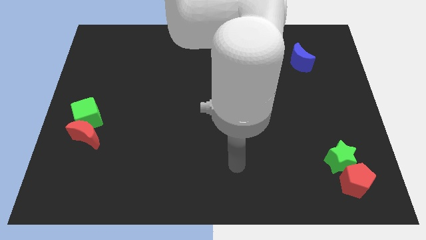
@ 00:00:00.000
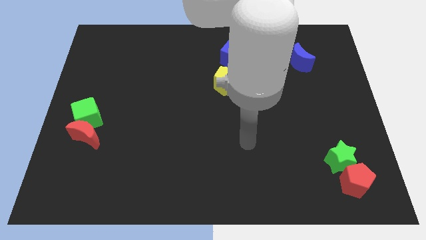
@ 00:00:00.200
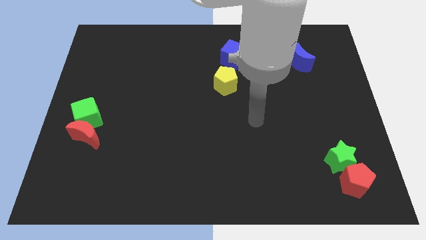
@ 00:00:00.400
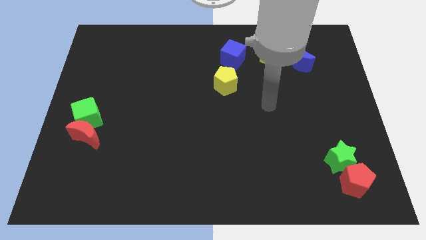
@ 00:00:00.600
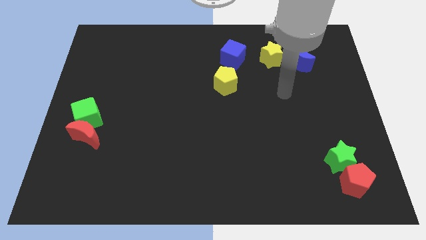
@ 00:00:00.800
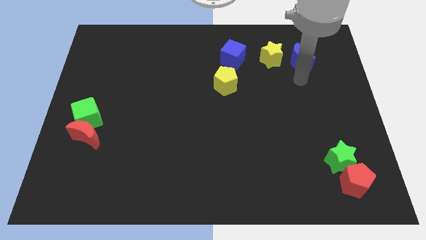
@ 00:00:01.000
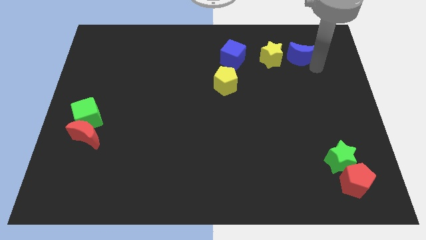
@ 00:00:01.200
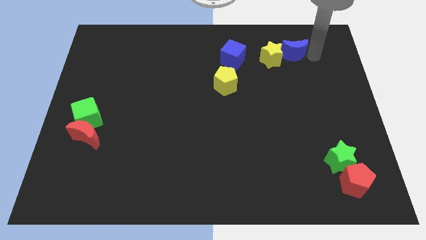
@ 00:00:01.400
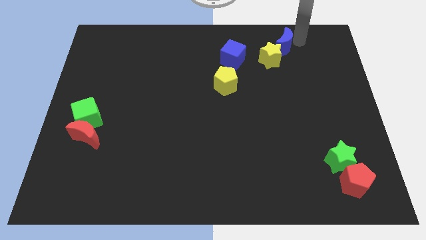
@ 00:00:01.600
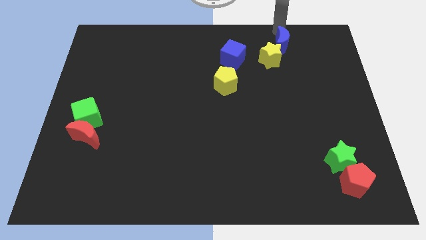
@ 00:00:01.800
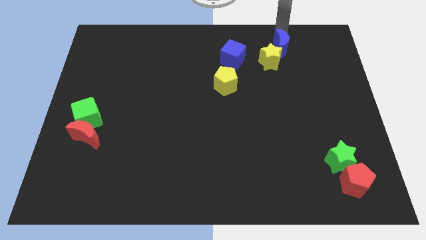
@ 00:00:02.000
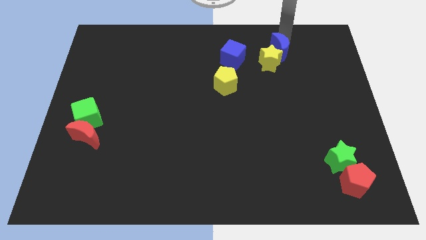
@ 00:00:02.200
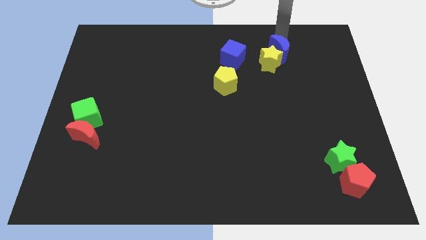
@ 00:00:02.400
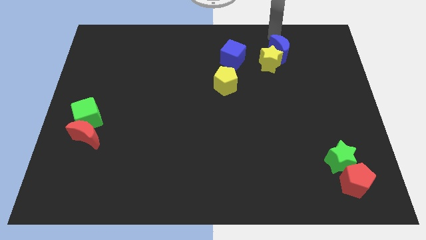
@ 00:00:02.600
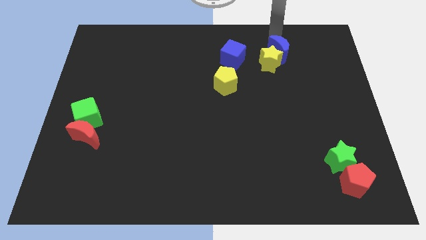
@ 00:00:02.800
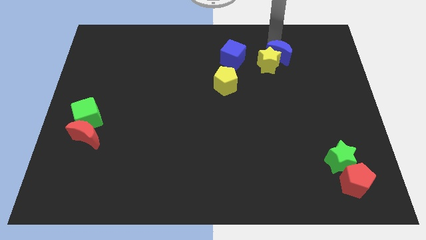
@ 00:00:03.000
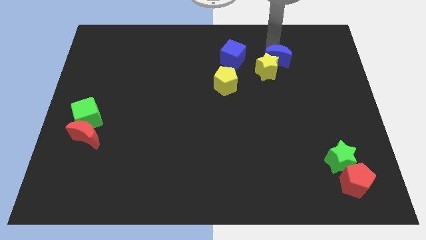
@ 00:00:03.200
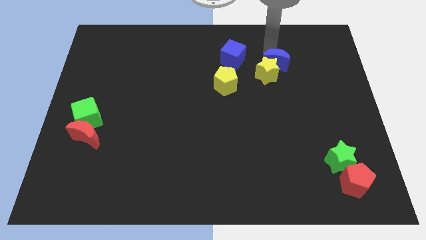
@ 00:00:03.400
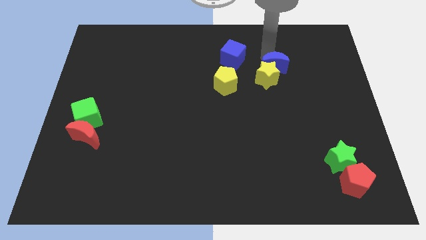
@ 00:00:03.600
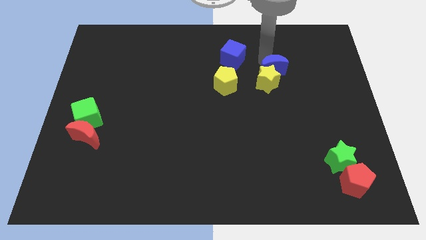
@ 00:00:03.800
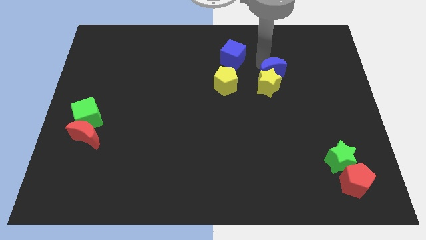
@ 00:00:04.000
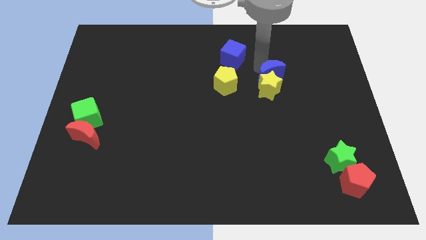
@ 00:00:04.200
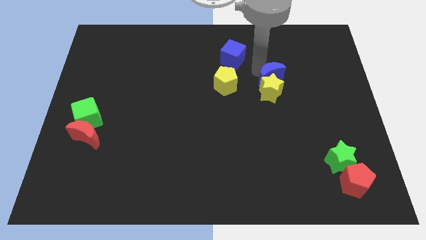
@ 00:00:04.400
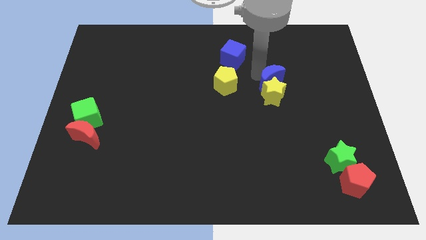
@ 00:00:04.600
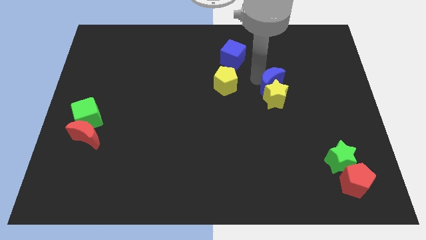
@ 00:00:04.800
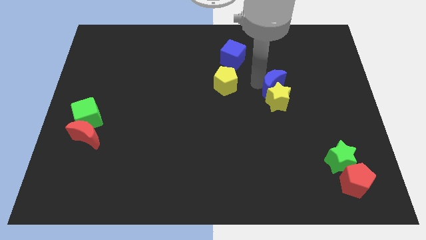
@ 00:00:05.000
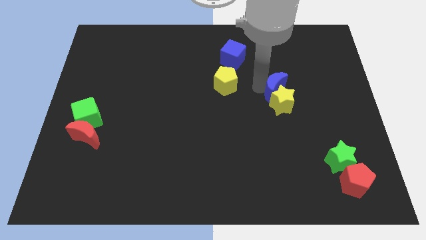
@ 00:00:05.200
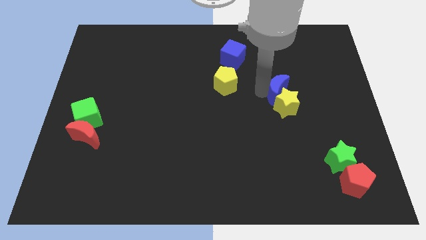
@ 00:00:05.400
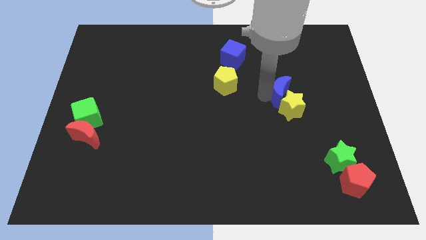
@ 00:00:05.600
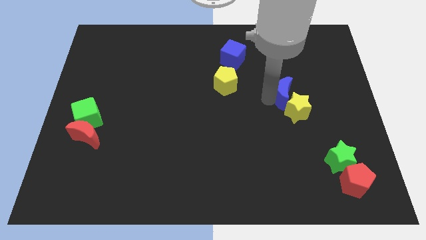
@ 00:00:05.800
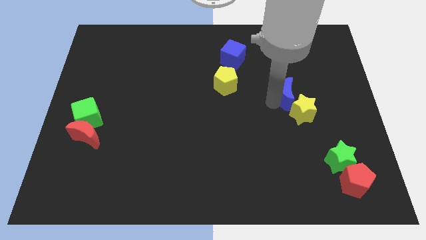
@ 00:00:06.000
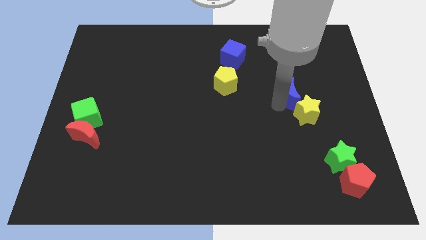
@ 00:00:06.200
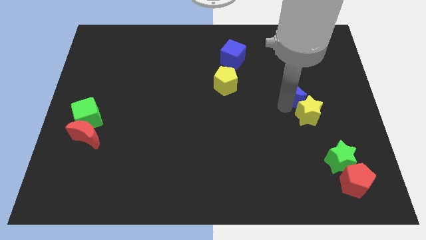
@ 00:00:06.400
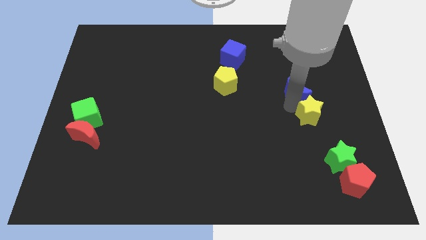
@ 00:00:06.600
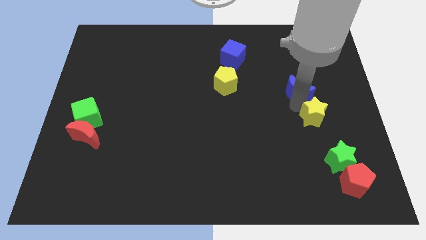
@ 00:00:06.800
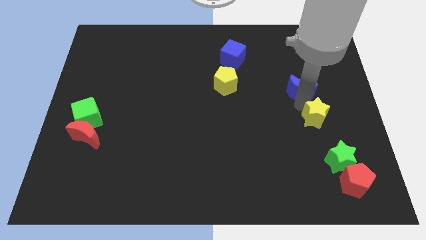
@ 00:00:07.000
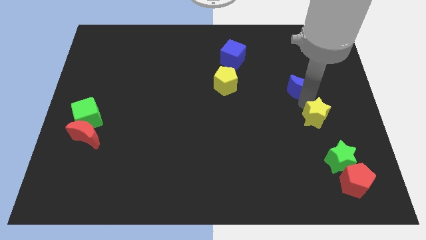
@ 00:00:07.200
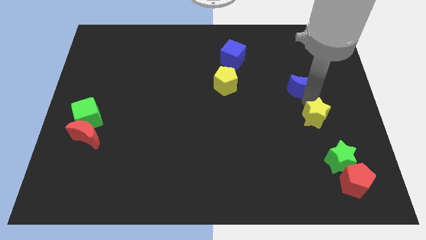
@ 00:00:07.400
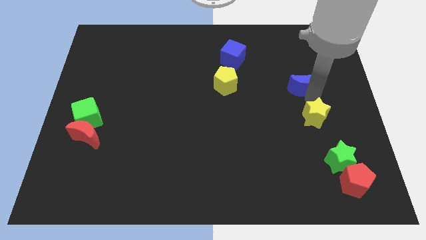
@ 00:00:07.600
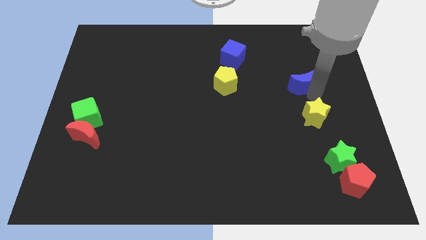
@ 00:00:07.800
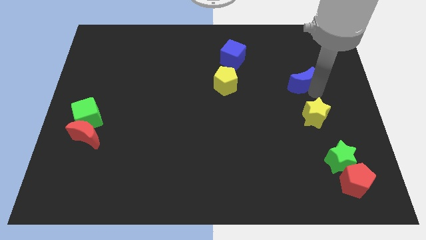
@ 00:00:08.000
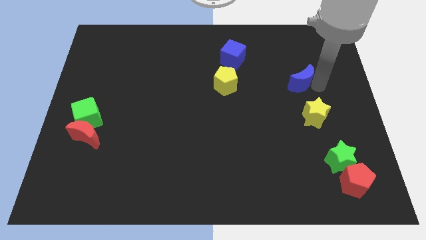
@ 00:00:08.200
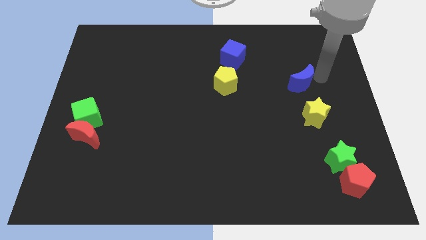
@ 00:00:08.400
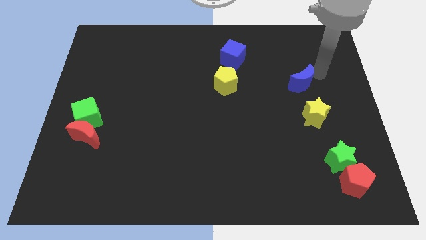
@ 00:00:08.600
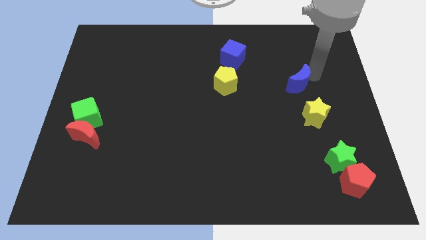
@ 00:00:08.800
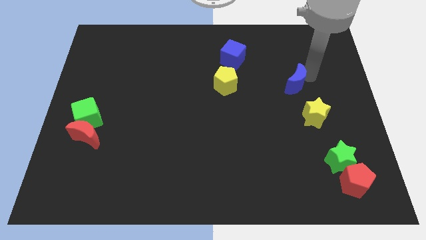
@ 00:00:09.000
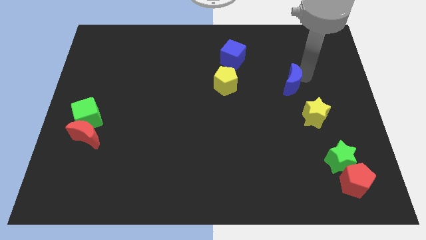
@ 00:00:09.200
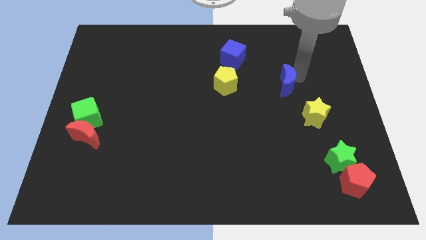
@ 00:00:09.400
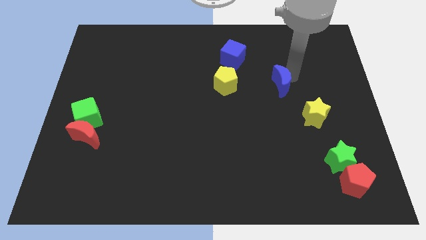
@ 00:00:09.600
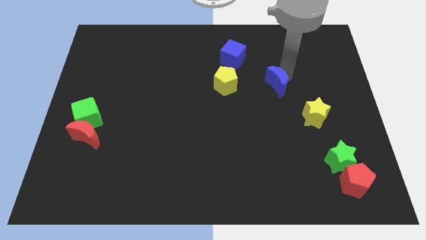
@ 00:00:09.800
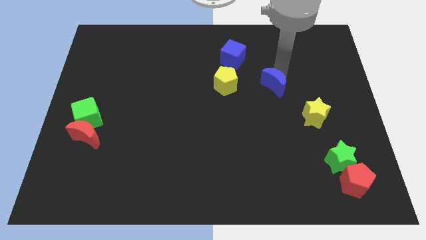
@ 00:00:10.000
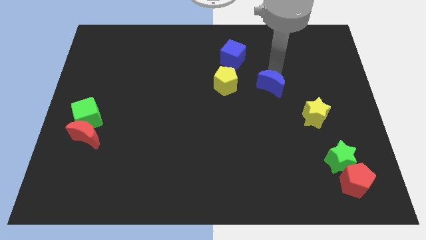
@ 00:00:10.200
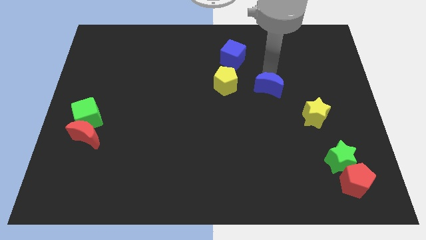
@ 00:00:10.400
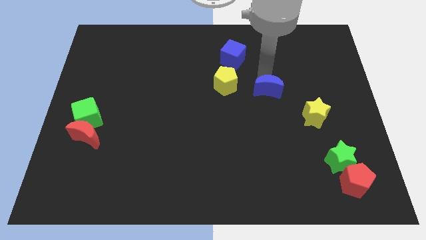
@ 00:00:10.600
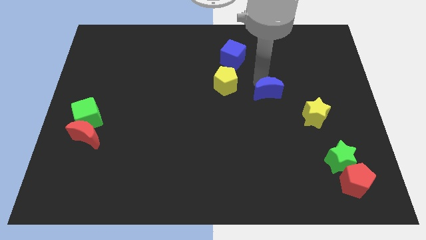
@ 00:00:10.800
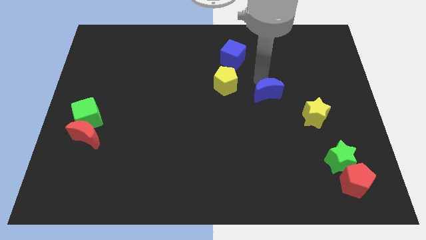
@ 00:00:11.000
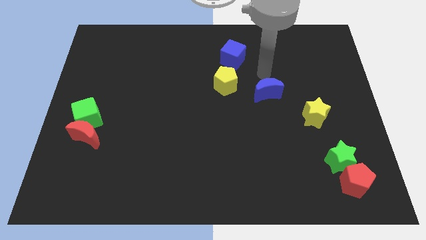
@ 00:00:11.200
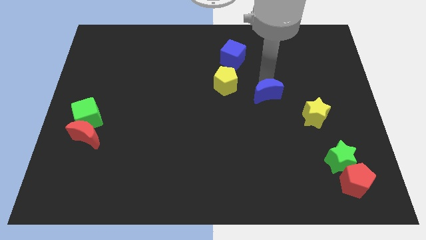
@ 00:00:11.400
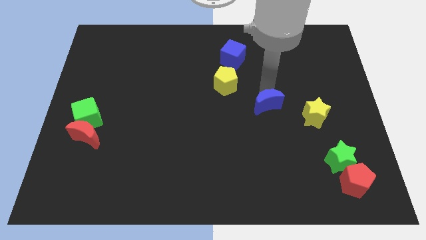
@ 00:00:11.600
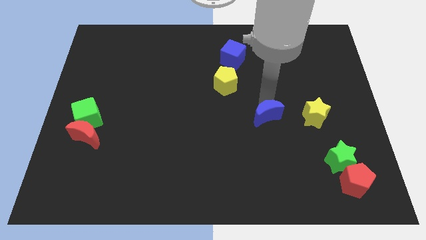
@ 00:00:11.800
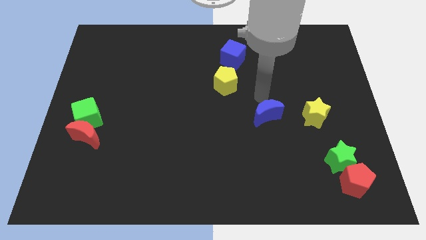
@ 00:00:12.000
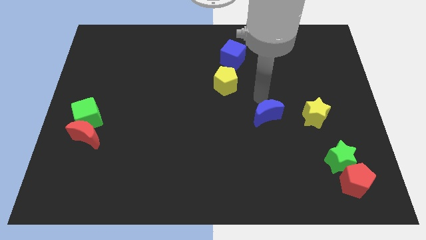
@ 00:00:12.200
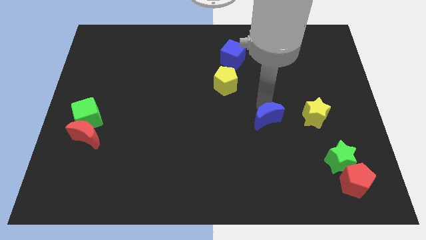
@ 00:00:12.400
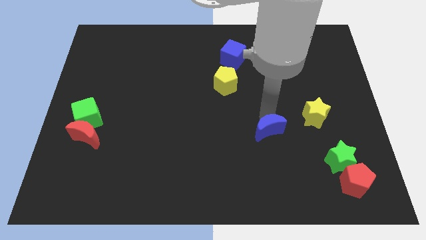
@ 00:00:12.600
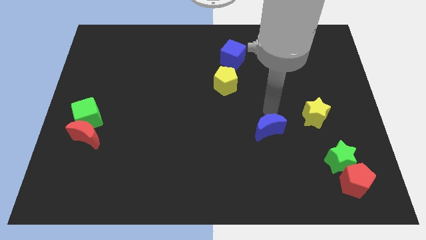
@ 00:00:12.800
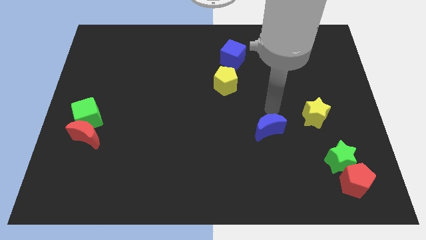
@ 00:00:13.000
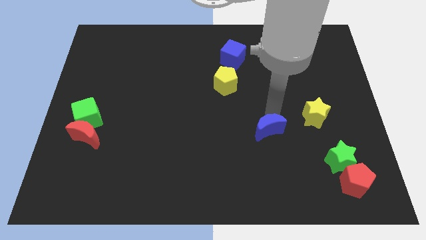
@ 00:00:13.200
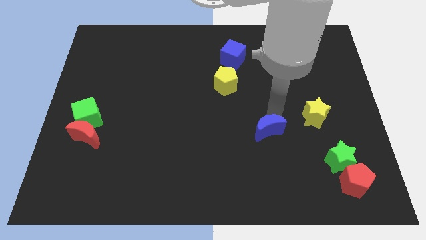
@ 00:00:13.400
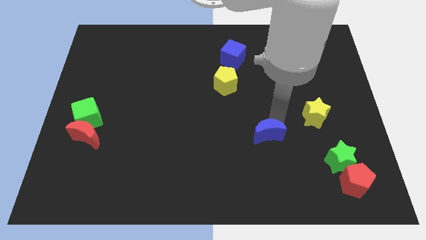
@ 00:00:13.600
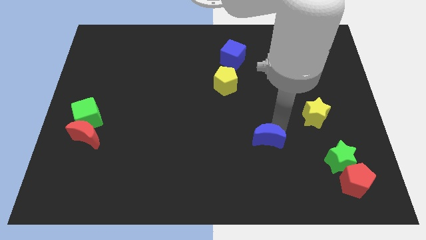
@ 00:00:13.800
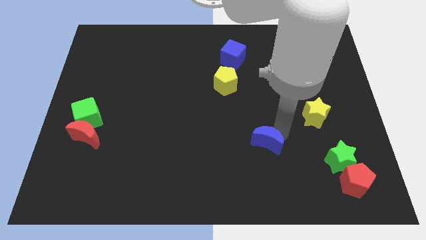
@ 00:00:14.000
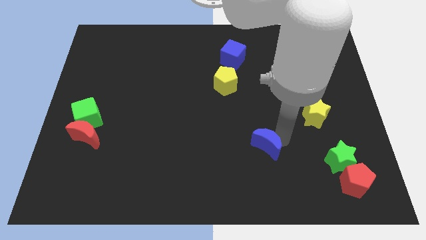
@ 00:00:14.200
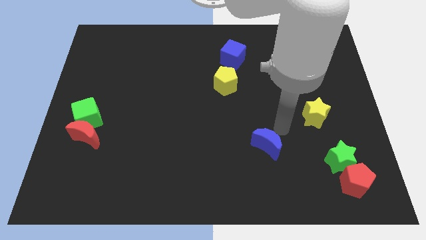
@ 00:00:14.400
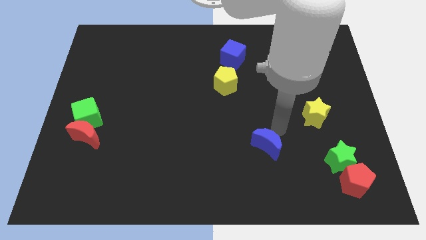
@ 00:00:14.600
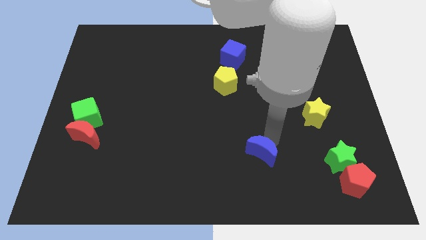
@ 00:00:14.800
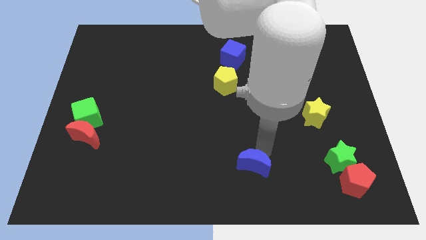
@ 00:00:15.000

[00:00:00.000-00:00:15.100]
move the blue moon to the bottom side
